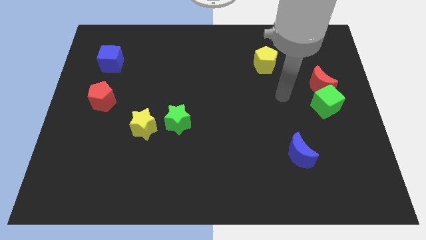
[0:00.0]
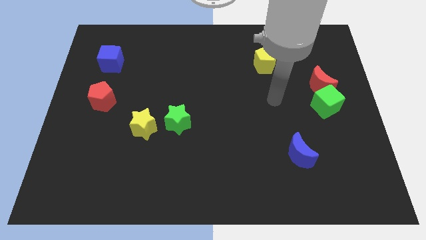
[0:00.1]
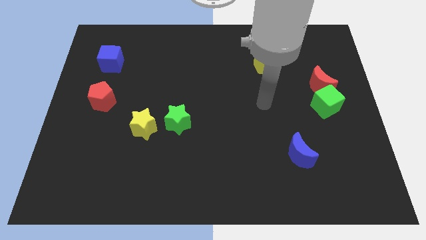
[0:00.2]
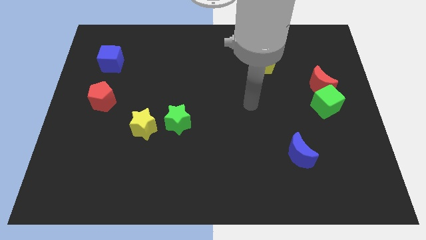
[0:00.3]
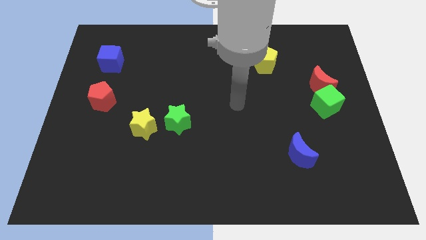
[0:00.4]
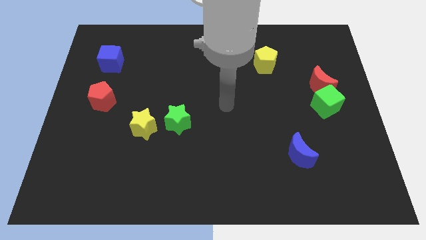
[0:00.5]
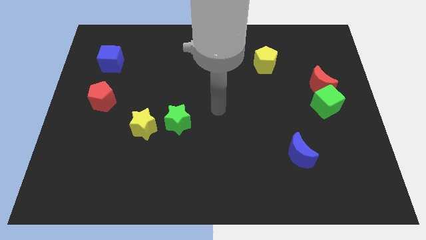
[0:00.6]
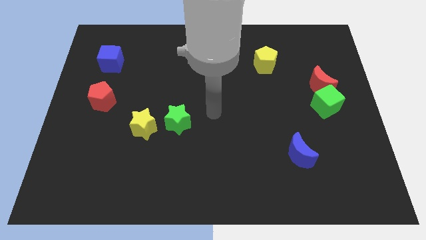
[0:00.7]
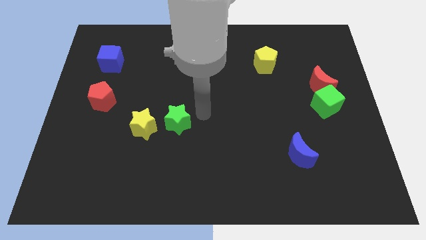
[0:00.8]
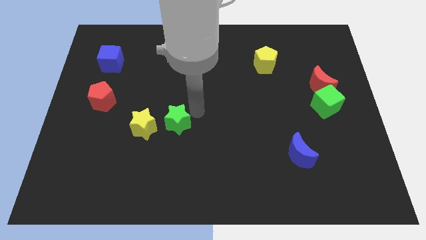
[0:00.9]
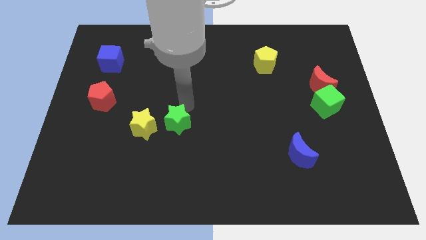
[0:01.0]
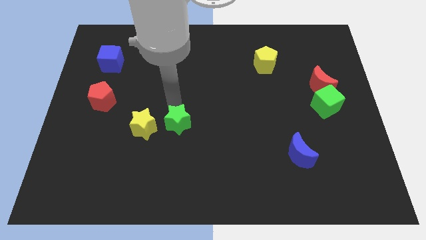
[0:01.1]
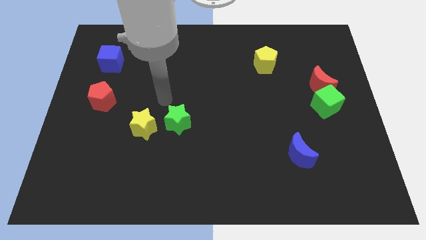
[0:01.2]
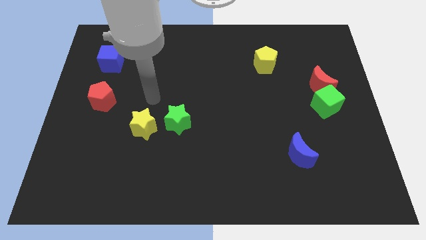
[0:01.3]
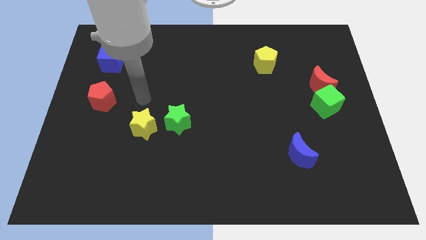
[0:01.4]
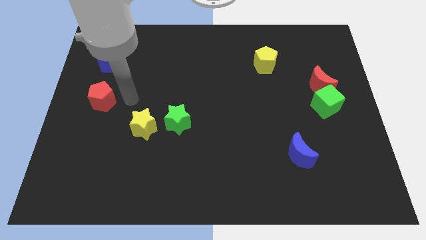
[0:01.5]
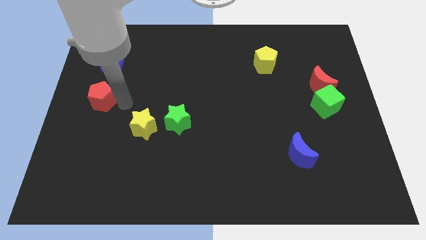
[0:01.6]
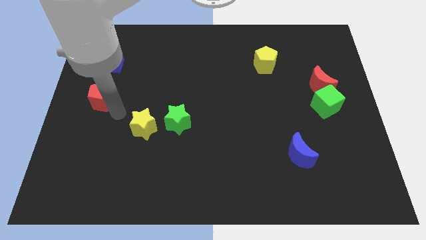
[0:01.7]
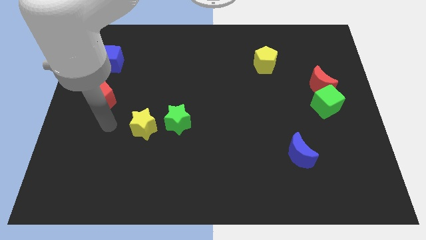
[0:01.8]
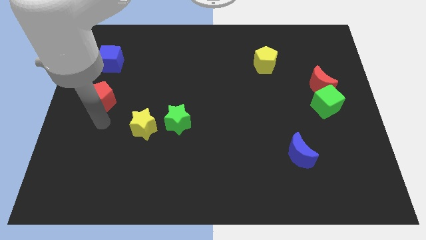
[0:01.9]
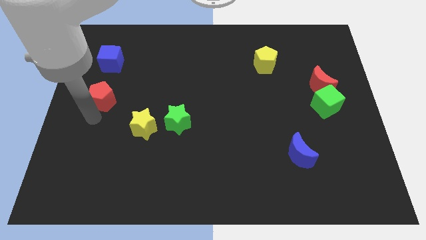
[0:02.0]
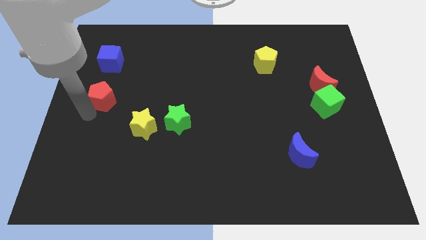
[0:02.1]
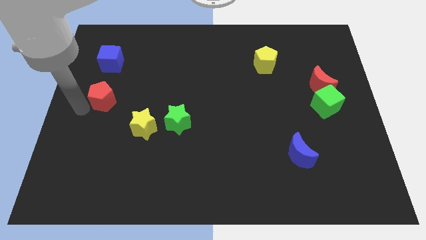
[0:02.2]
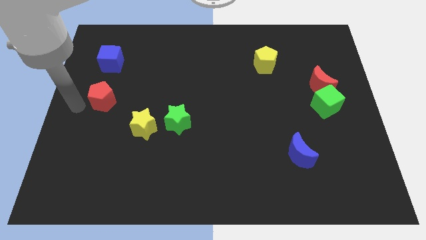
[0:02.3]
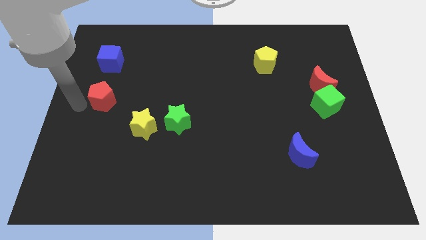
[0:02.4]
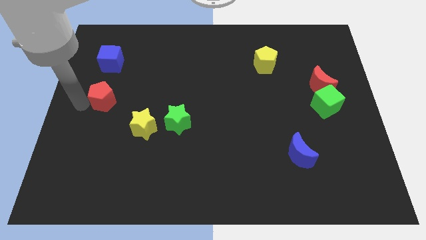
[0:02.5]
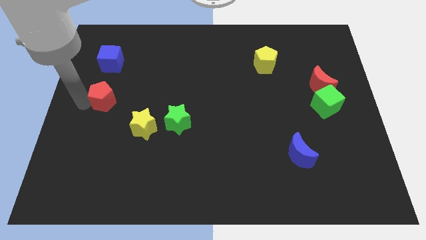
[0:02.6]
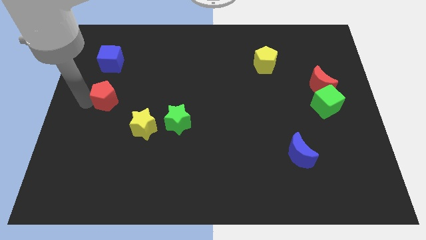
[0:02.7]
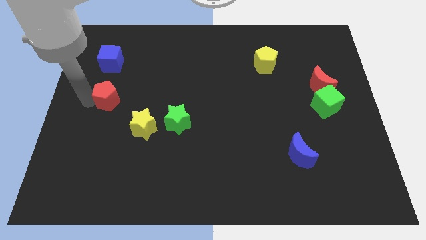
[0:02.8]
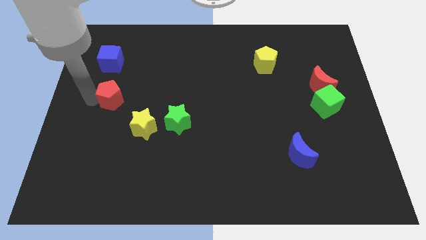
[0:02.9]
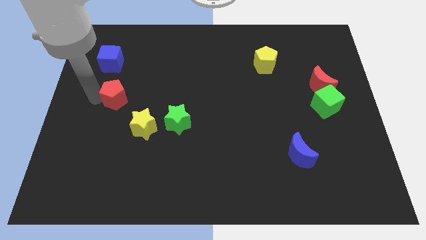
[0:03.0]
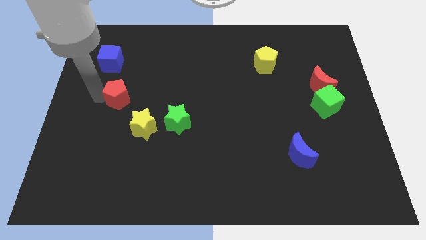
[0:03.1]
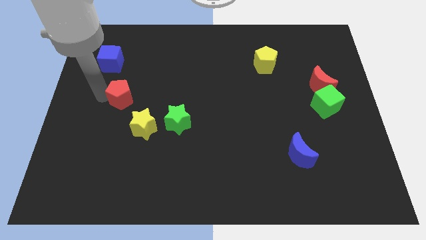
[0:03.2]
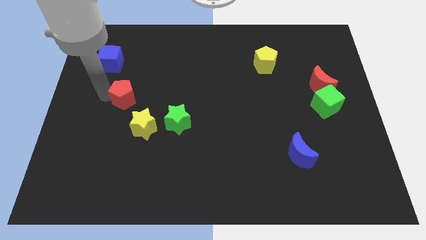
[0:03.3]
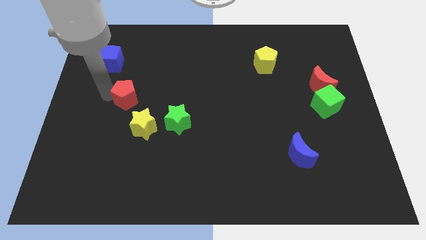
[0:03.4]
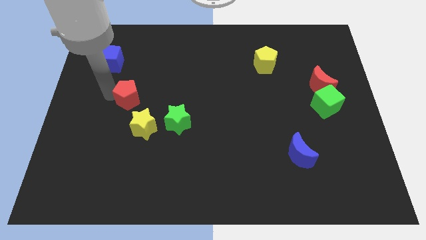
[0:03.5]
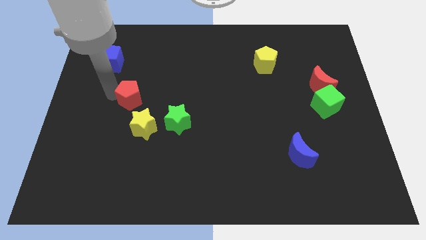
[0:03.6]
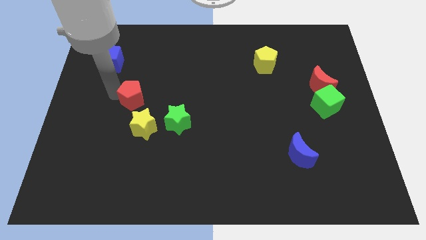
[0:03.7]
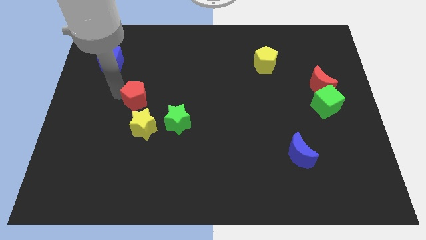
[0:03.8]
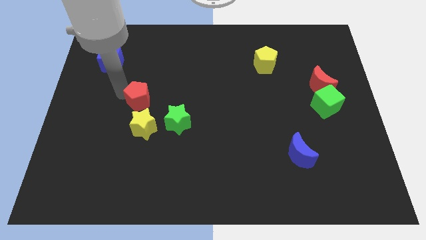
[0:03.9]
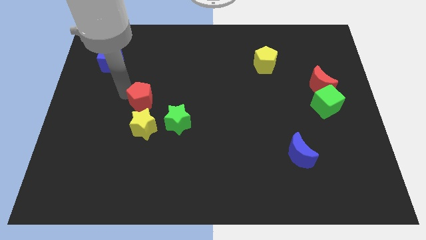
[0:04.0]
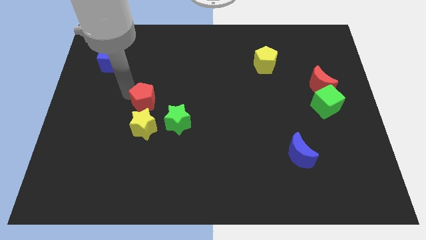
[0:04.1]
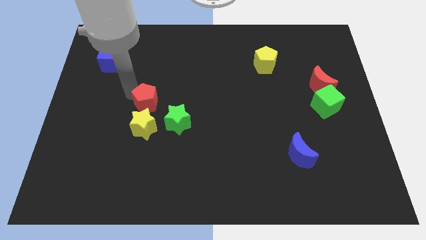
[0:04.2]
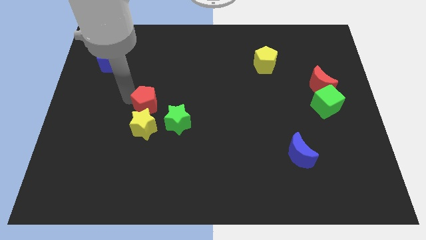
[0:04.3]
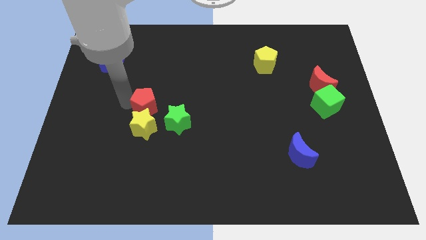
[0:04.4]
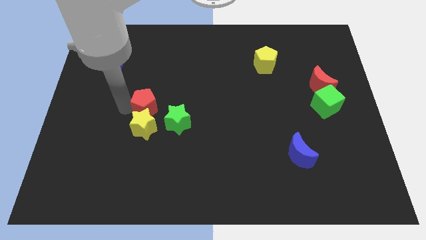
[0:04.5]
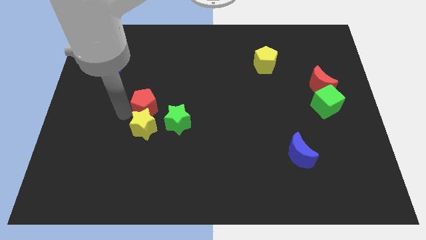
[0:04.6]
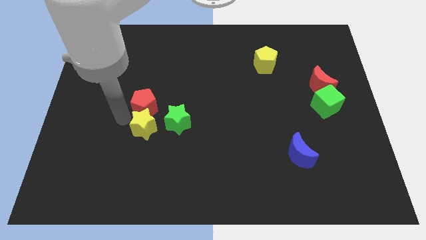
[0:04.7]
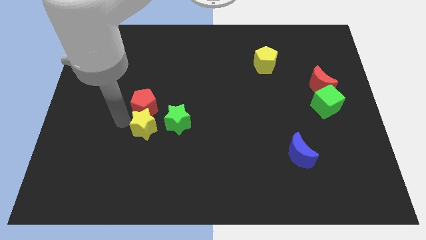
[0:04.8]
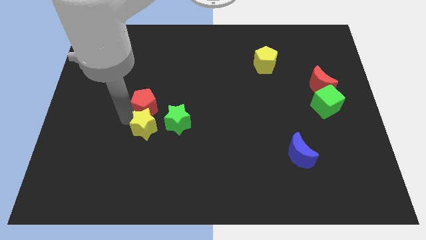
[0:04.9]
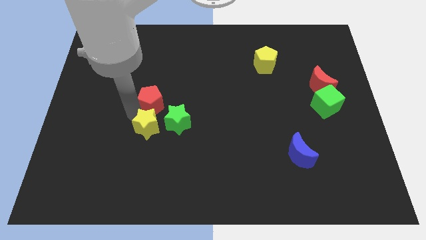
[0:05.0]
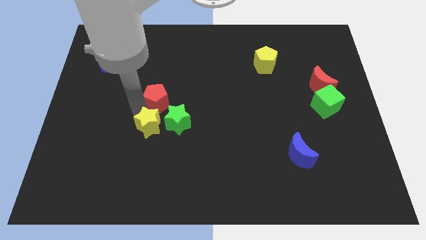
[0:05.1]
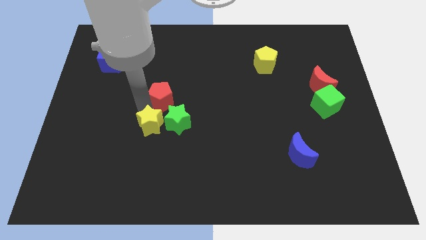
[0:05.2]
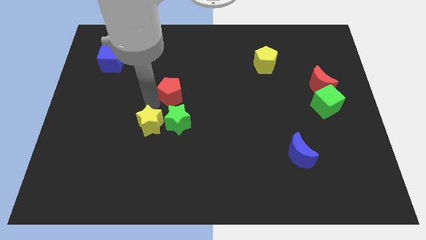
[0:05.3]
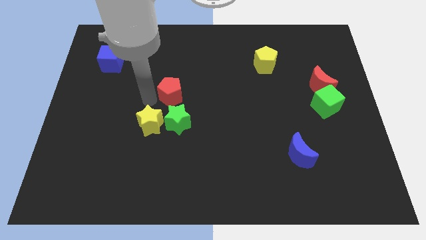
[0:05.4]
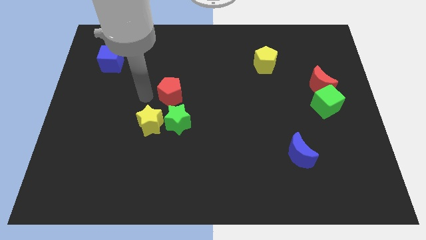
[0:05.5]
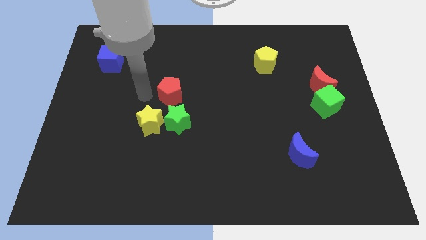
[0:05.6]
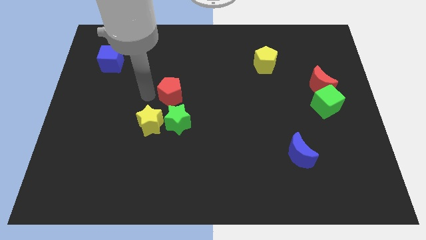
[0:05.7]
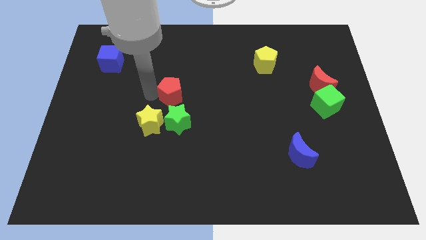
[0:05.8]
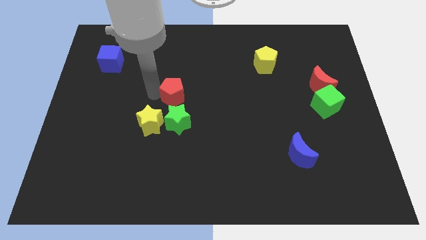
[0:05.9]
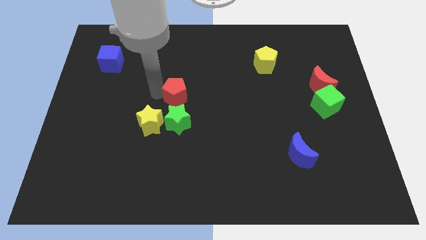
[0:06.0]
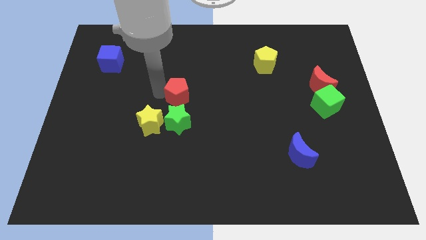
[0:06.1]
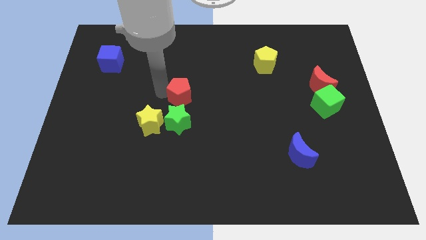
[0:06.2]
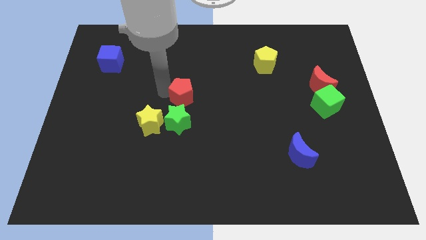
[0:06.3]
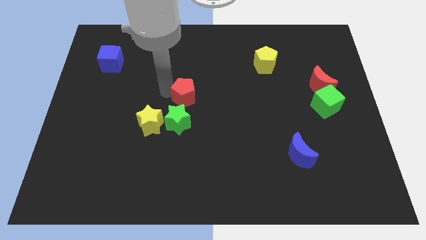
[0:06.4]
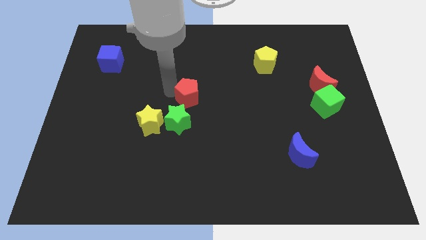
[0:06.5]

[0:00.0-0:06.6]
push the red pentagon right

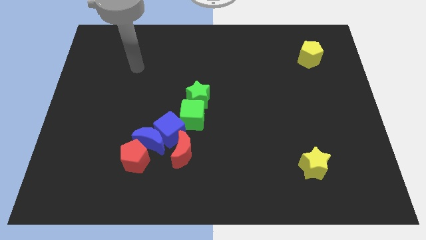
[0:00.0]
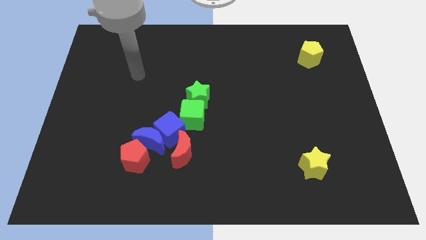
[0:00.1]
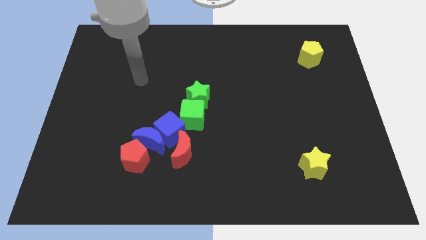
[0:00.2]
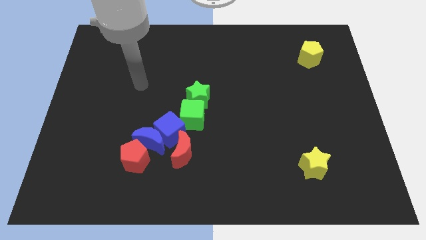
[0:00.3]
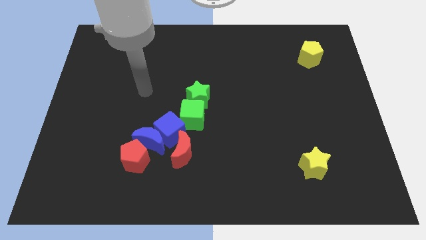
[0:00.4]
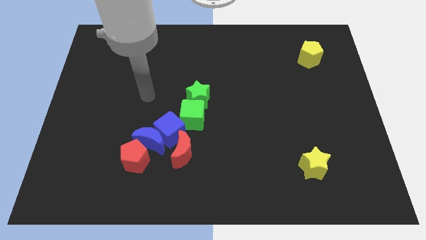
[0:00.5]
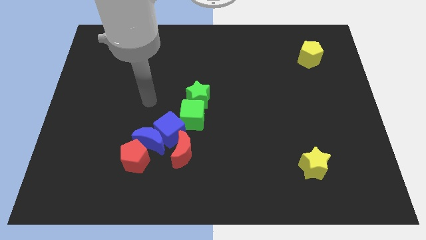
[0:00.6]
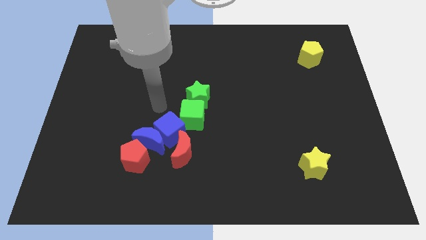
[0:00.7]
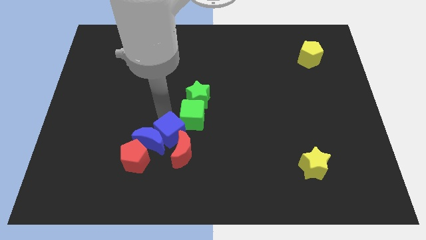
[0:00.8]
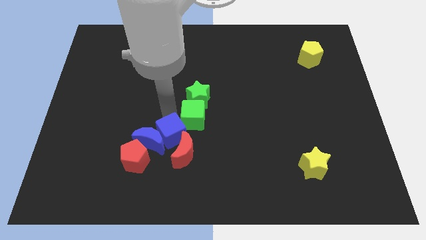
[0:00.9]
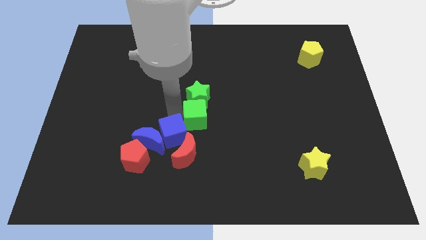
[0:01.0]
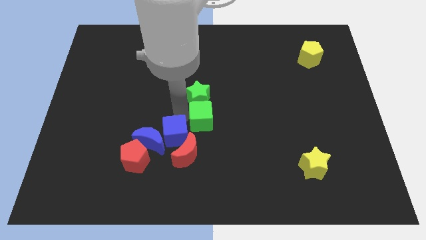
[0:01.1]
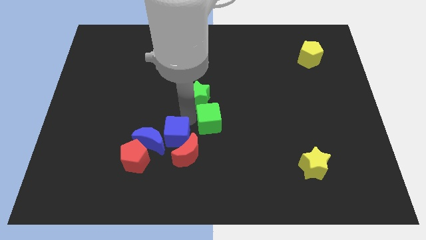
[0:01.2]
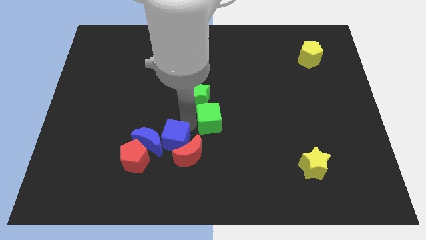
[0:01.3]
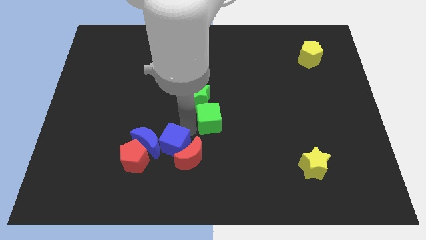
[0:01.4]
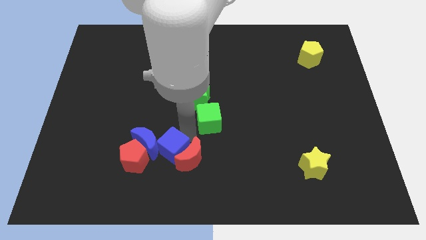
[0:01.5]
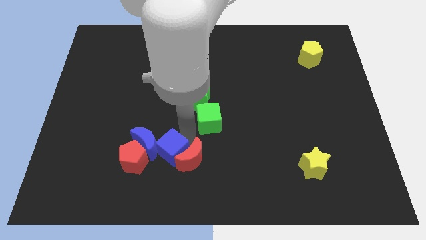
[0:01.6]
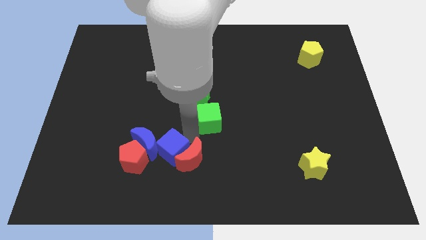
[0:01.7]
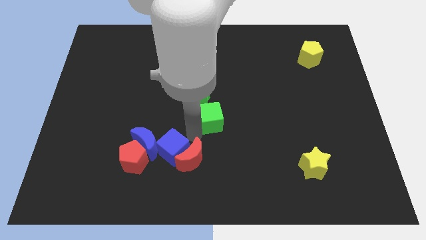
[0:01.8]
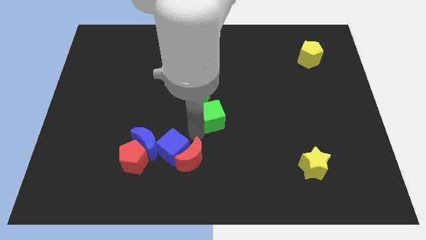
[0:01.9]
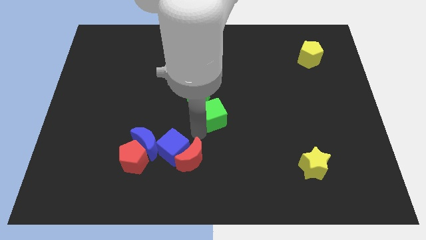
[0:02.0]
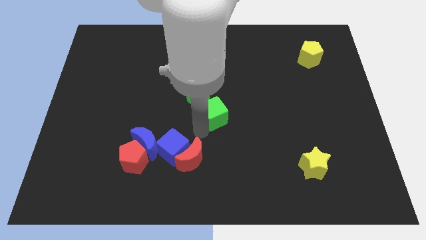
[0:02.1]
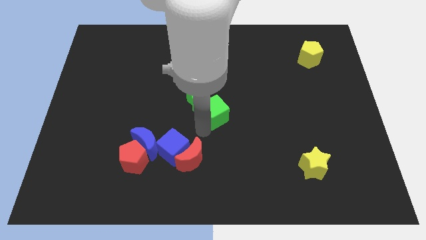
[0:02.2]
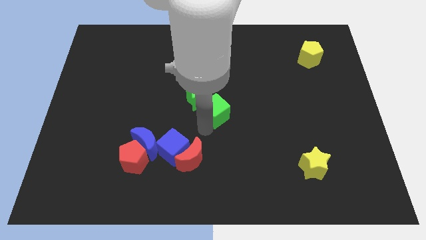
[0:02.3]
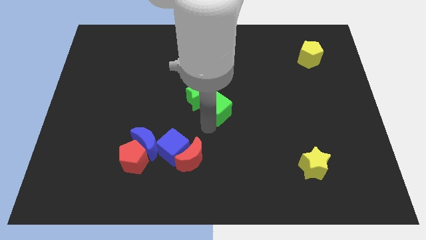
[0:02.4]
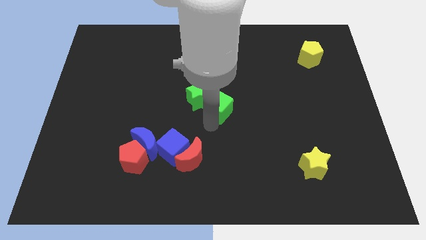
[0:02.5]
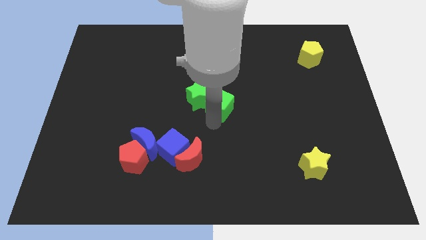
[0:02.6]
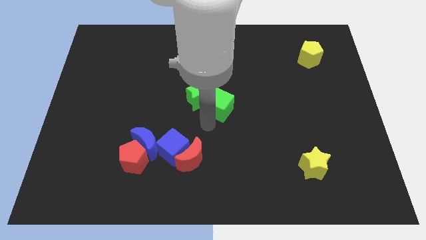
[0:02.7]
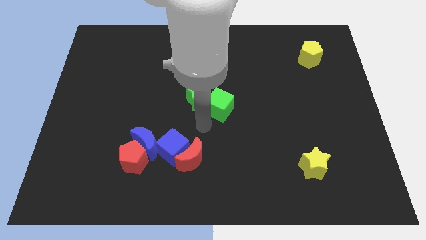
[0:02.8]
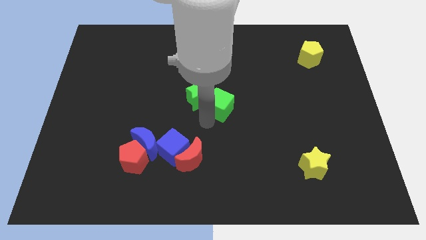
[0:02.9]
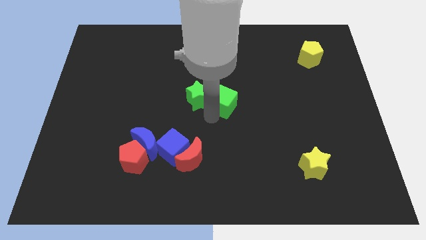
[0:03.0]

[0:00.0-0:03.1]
move the green cube up and then to the right a little bit
